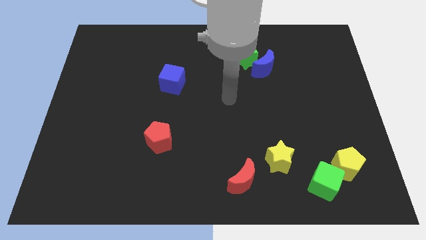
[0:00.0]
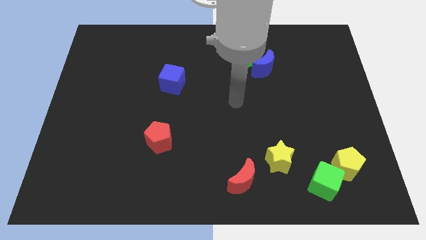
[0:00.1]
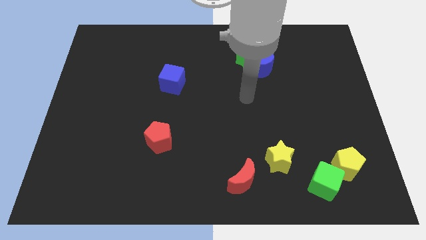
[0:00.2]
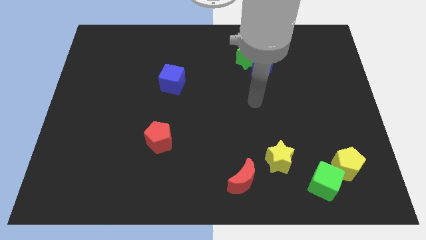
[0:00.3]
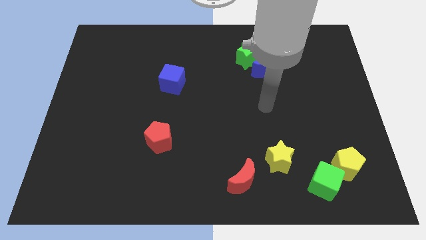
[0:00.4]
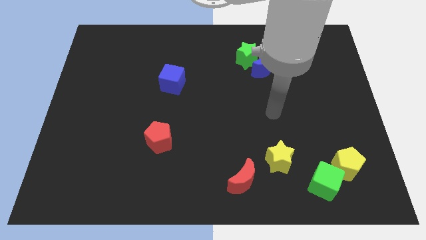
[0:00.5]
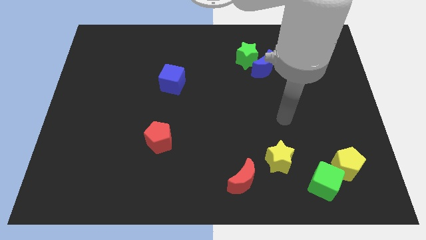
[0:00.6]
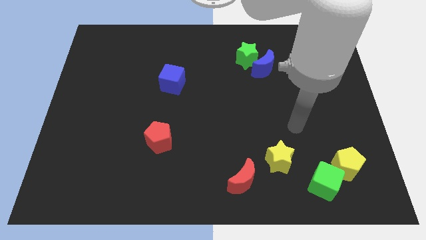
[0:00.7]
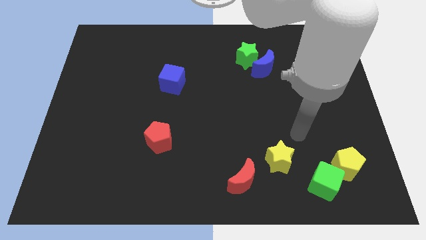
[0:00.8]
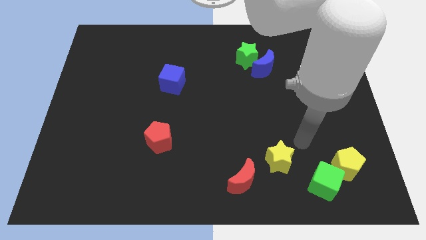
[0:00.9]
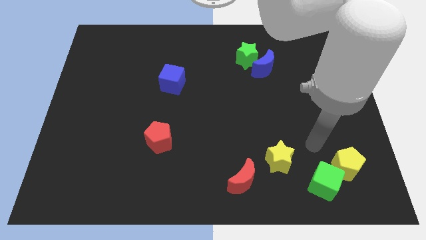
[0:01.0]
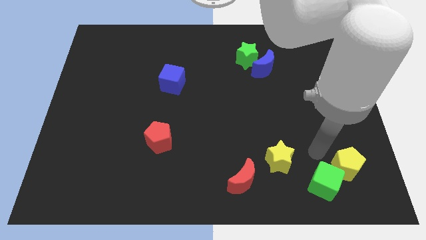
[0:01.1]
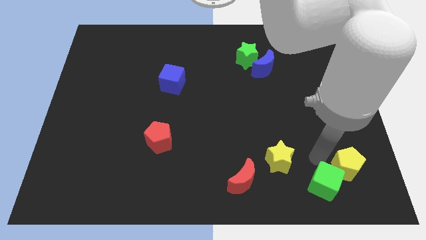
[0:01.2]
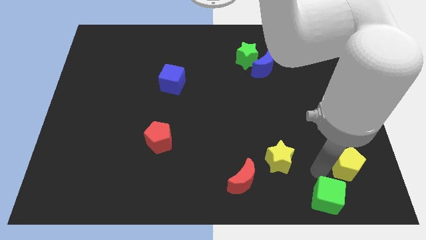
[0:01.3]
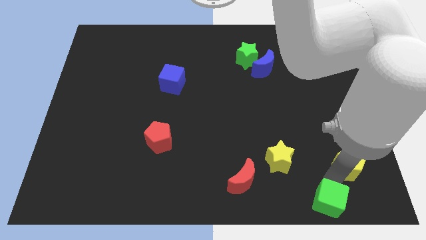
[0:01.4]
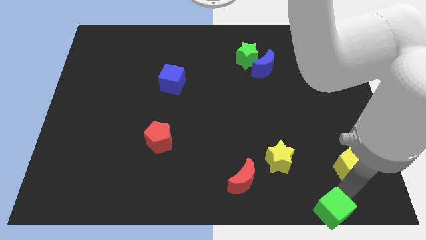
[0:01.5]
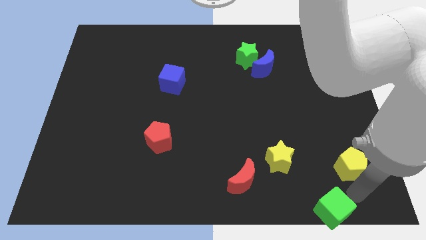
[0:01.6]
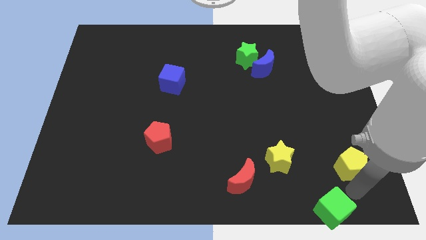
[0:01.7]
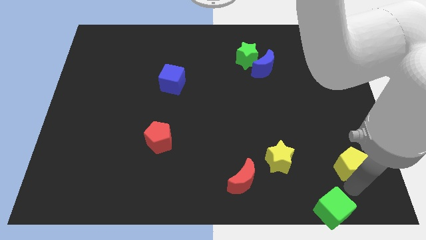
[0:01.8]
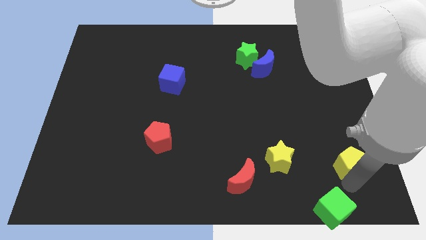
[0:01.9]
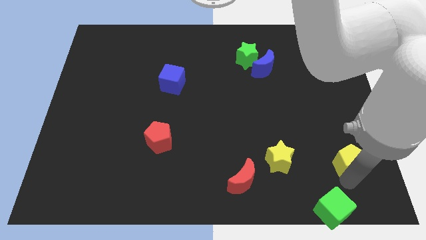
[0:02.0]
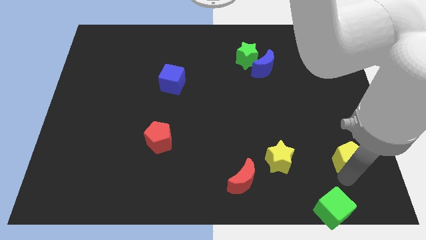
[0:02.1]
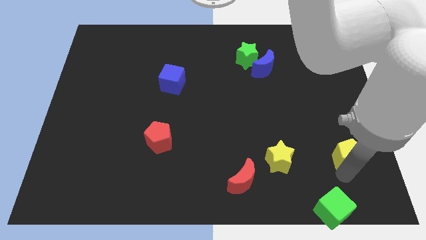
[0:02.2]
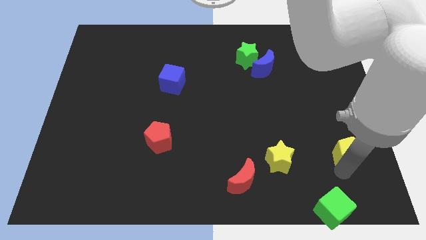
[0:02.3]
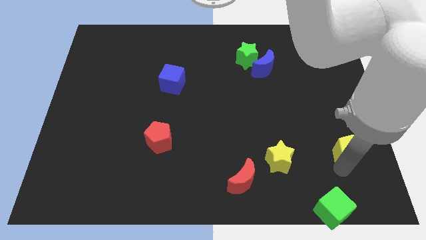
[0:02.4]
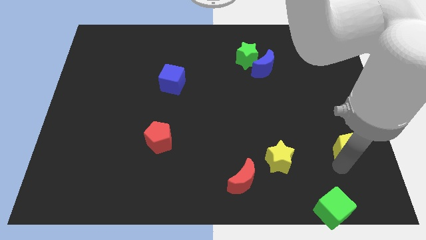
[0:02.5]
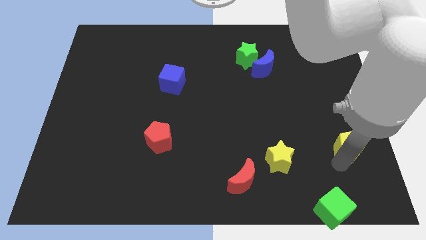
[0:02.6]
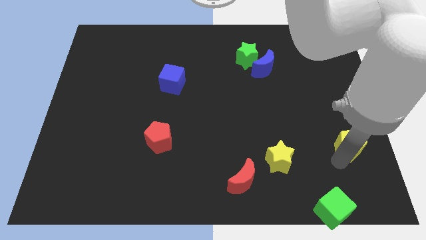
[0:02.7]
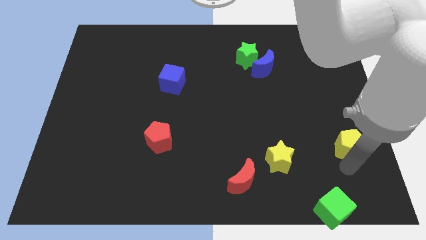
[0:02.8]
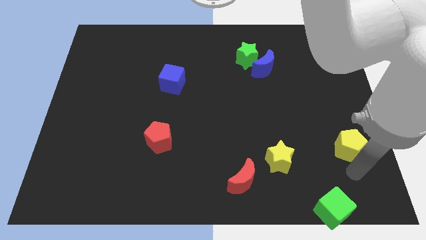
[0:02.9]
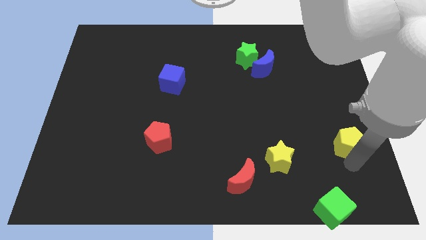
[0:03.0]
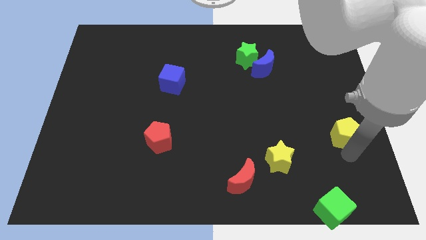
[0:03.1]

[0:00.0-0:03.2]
push the yellow pentagon up a little bit

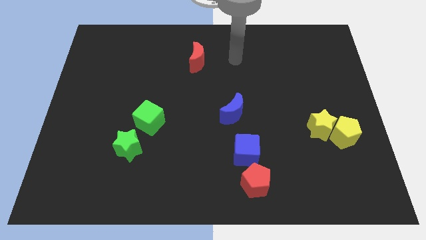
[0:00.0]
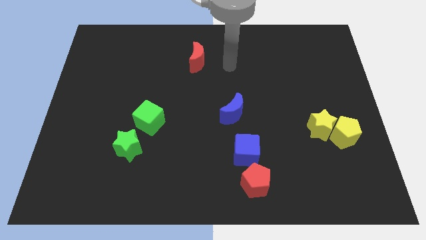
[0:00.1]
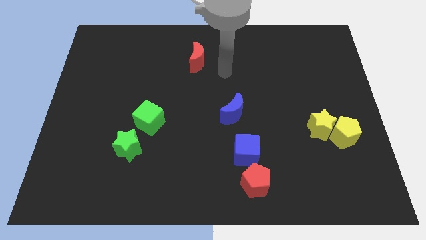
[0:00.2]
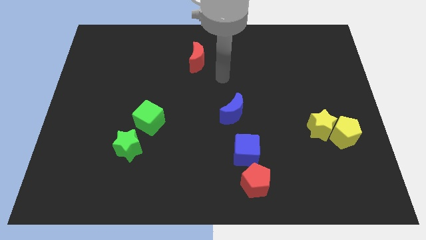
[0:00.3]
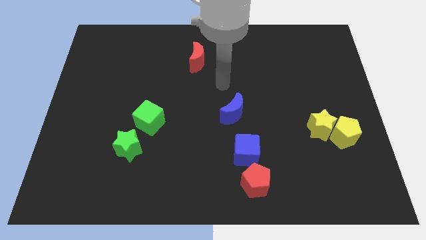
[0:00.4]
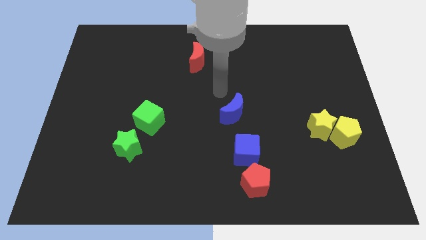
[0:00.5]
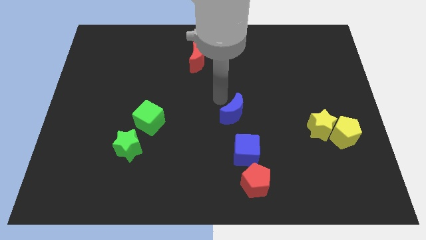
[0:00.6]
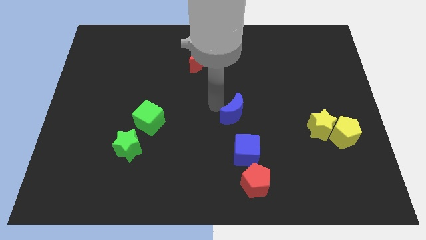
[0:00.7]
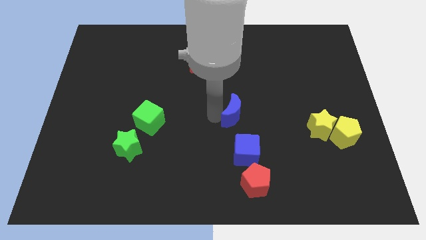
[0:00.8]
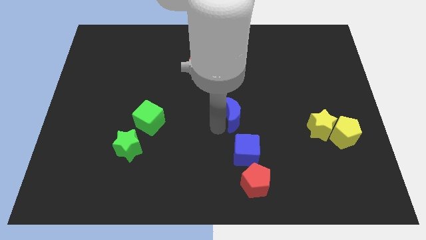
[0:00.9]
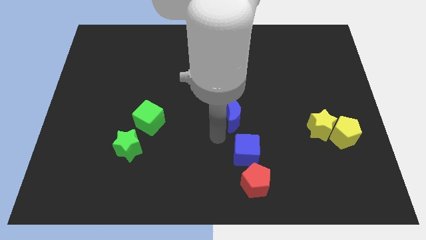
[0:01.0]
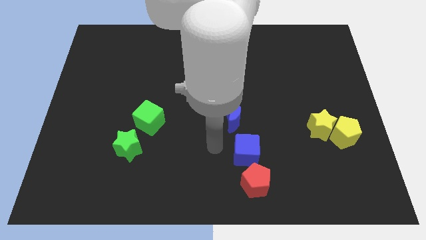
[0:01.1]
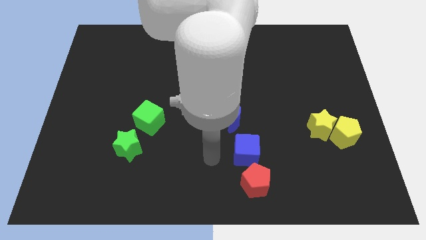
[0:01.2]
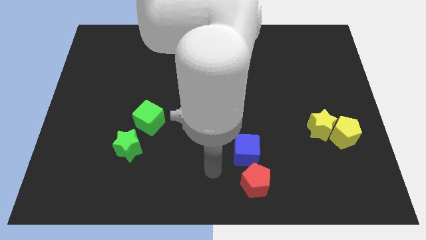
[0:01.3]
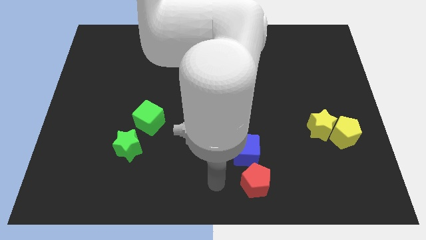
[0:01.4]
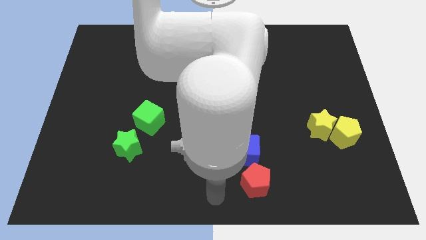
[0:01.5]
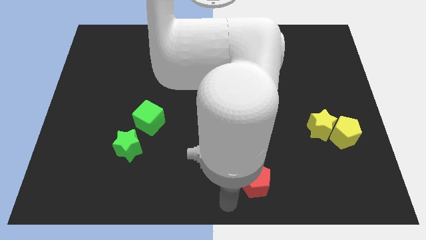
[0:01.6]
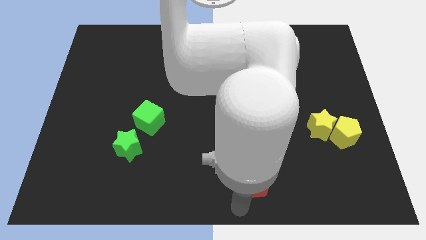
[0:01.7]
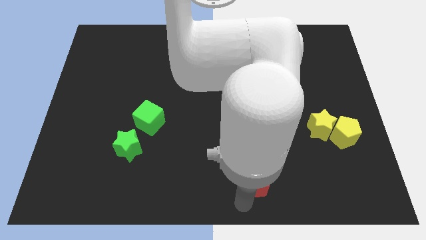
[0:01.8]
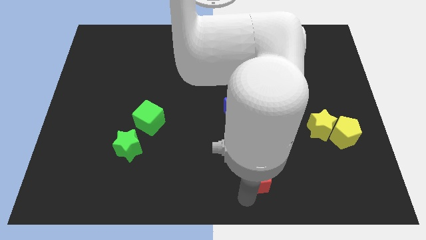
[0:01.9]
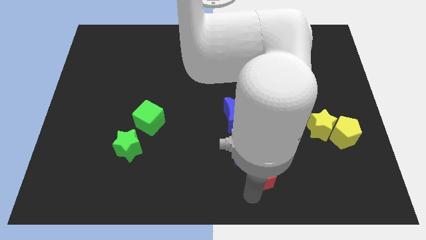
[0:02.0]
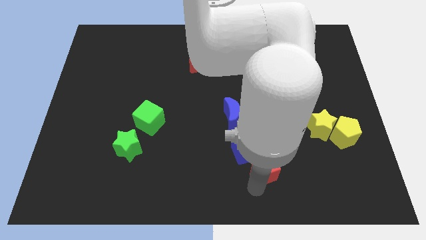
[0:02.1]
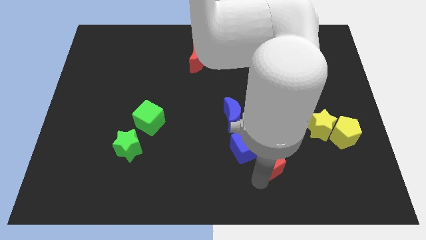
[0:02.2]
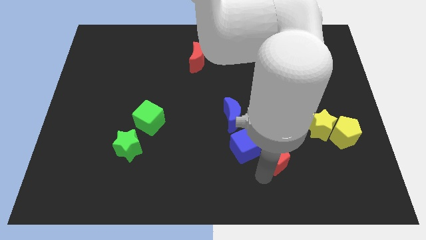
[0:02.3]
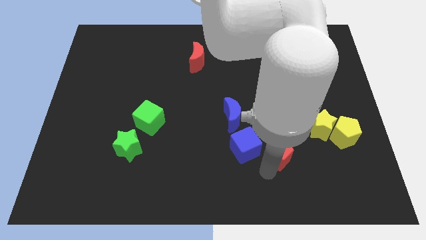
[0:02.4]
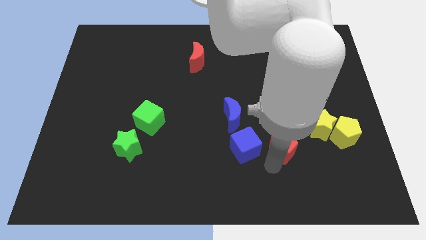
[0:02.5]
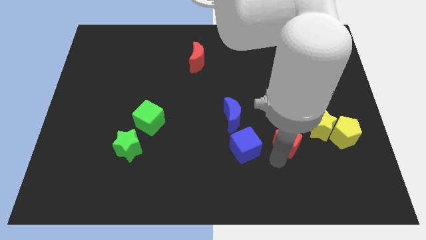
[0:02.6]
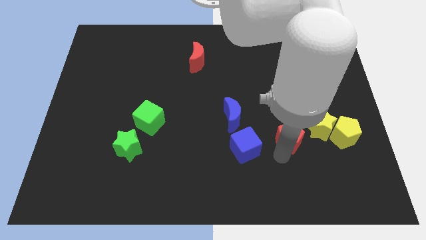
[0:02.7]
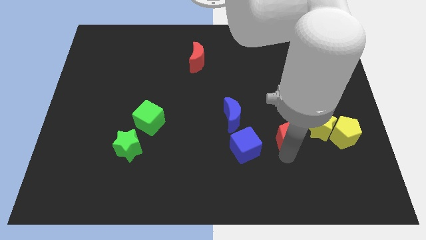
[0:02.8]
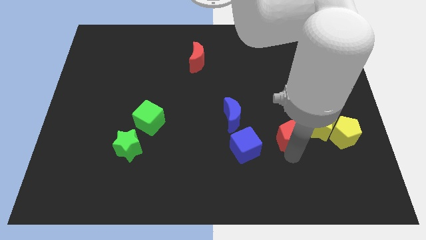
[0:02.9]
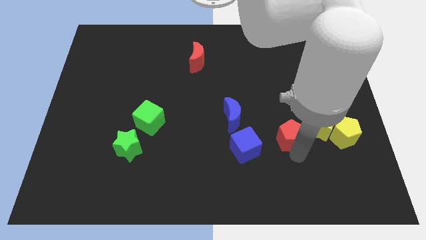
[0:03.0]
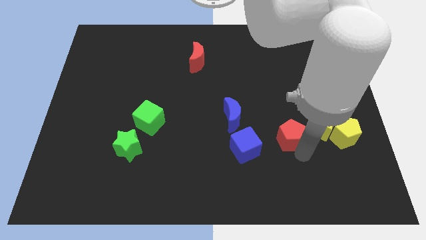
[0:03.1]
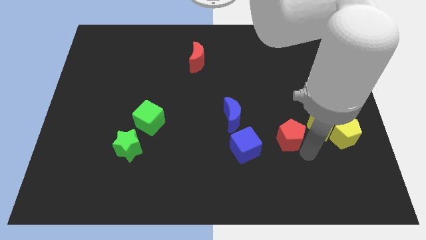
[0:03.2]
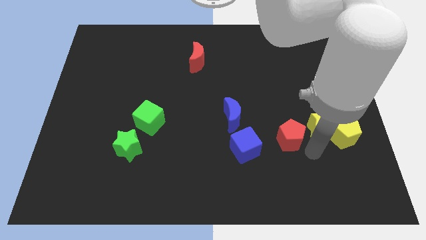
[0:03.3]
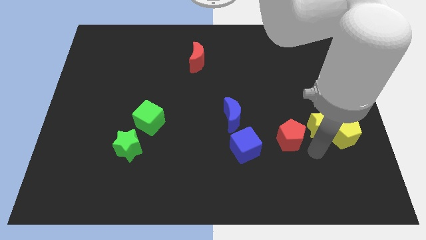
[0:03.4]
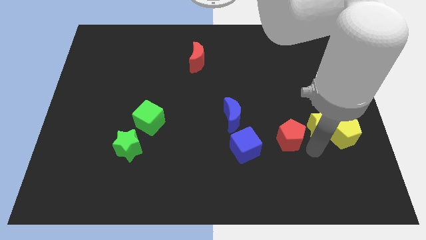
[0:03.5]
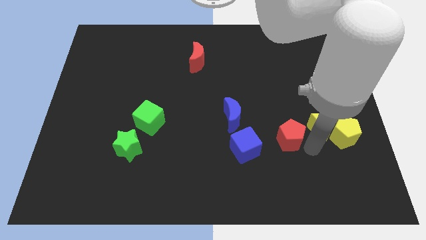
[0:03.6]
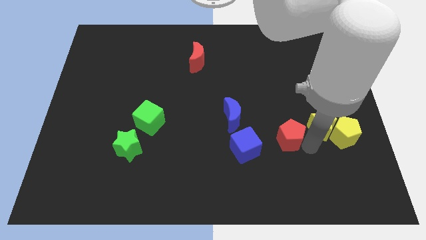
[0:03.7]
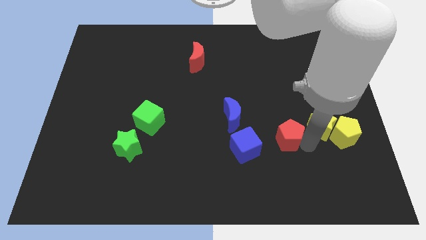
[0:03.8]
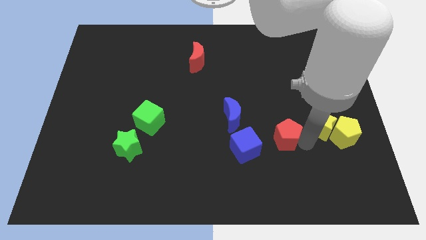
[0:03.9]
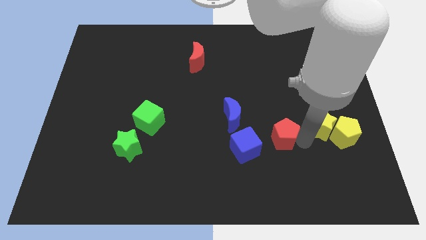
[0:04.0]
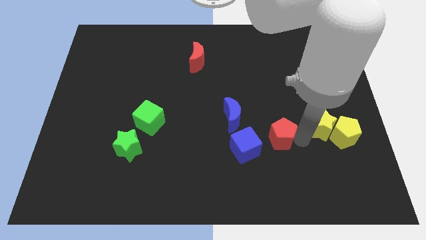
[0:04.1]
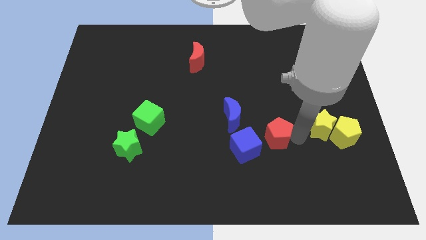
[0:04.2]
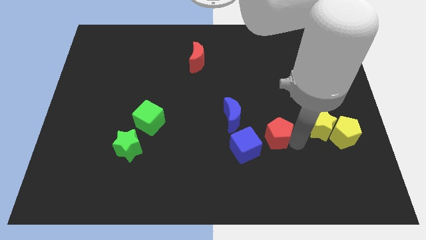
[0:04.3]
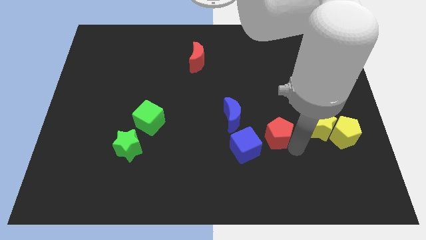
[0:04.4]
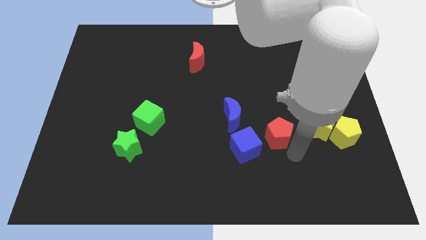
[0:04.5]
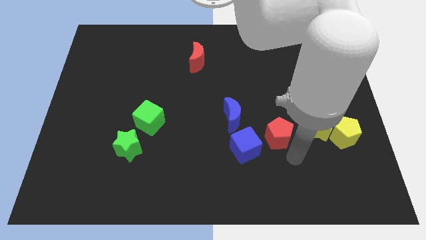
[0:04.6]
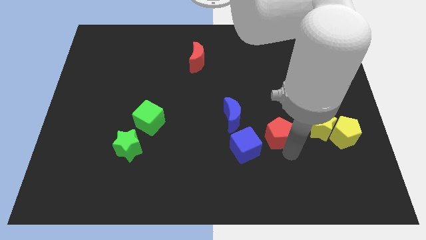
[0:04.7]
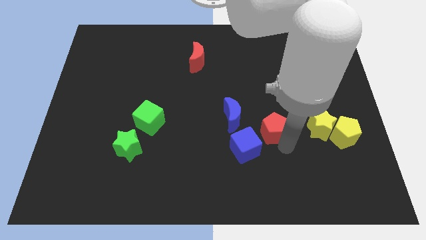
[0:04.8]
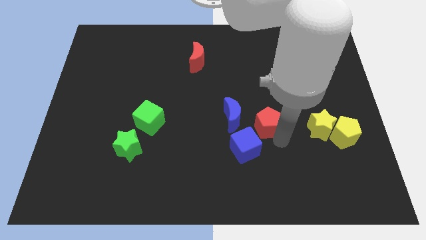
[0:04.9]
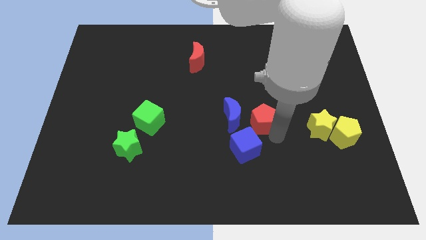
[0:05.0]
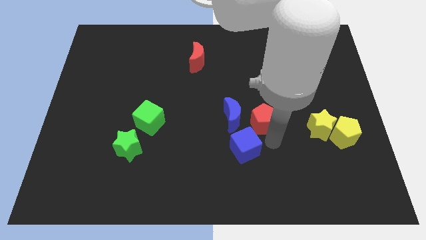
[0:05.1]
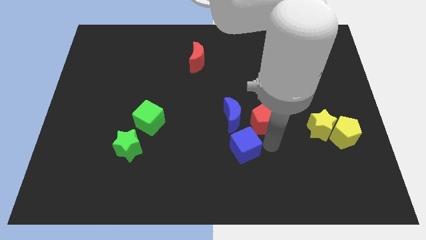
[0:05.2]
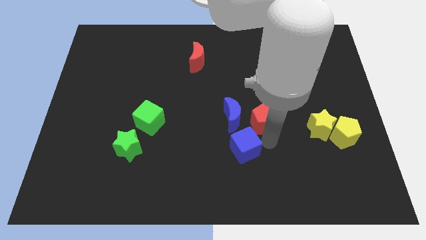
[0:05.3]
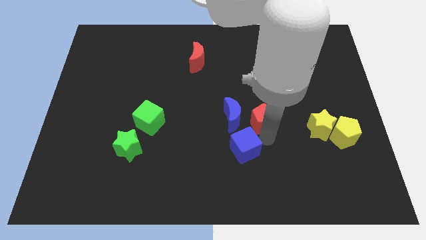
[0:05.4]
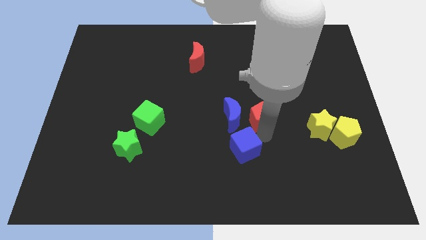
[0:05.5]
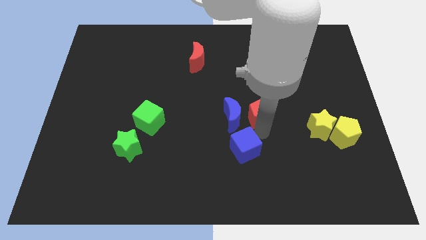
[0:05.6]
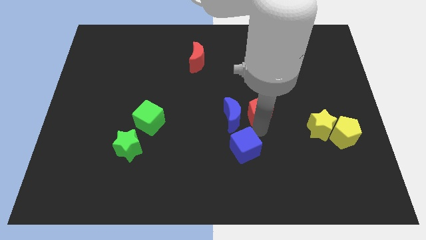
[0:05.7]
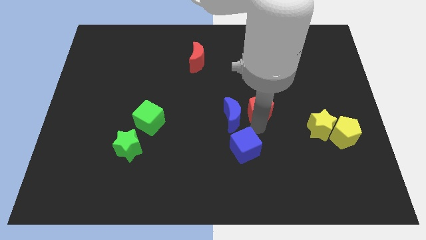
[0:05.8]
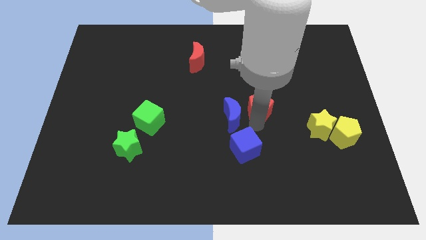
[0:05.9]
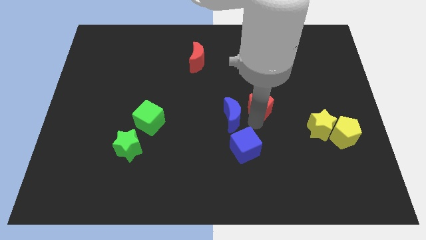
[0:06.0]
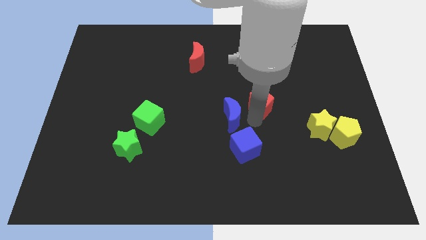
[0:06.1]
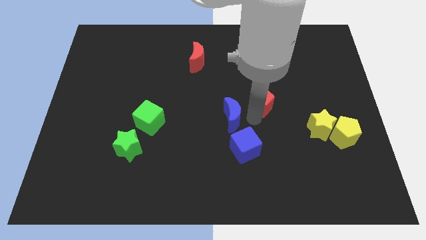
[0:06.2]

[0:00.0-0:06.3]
slide the red pentagon up
